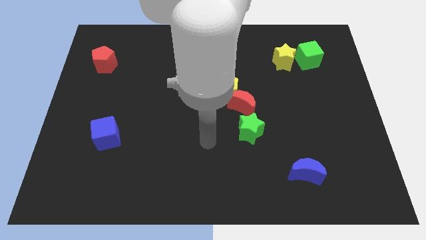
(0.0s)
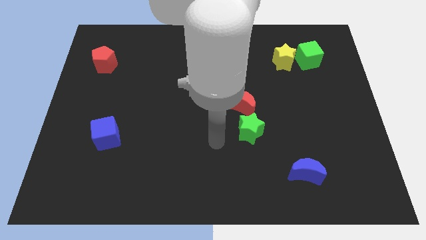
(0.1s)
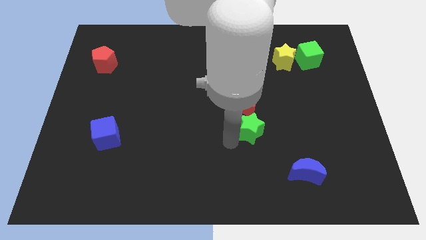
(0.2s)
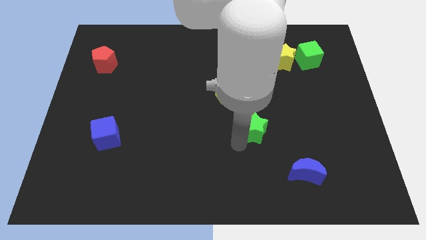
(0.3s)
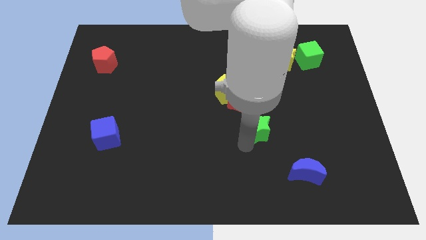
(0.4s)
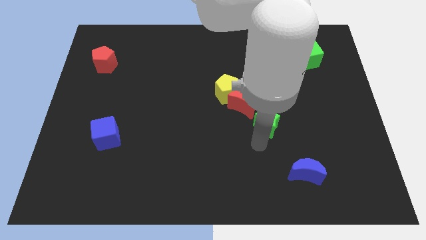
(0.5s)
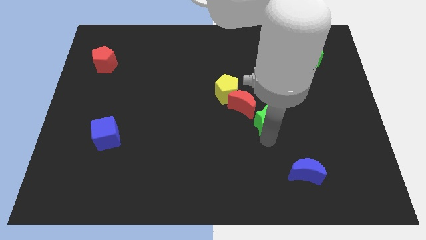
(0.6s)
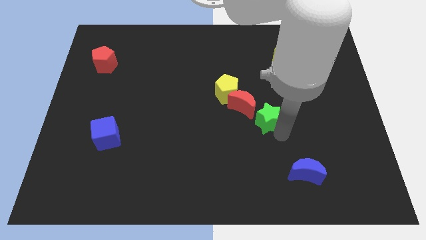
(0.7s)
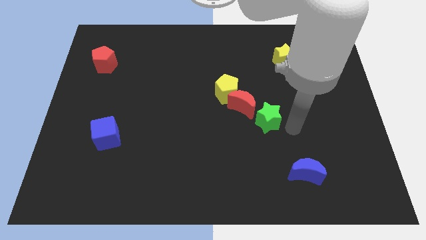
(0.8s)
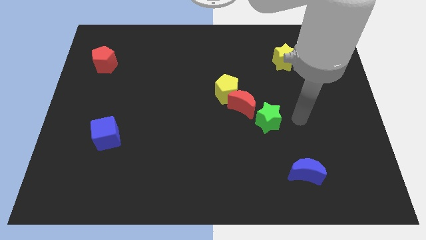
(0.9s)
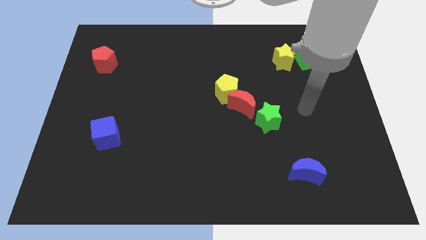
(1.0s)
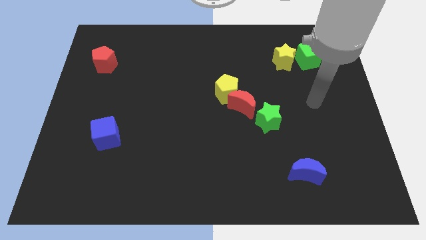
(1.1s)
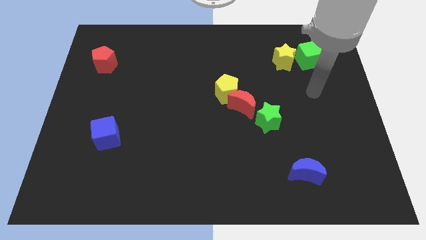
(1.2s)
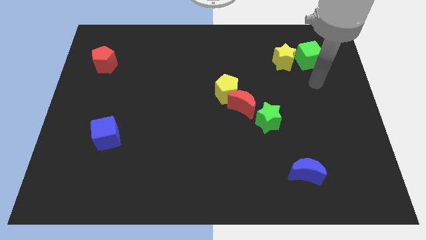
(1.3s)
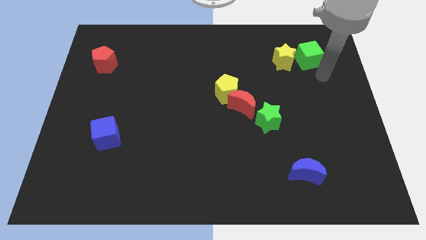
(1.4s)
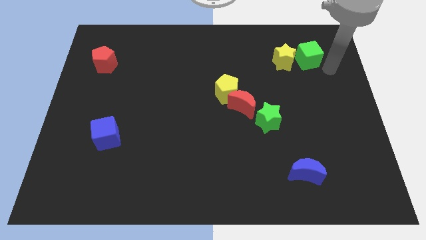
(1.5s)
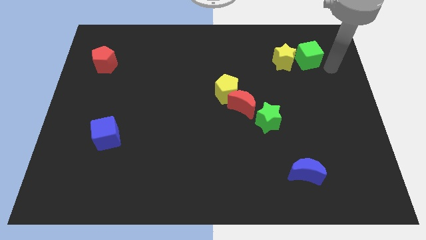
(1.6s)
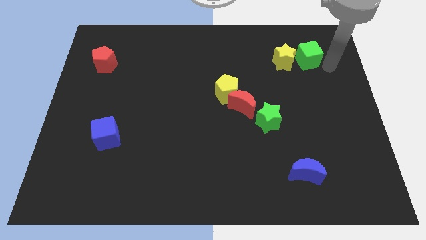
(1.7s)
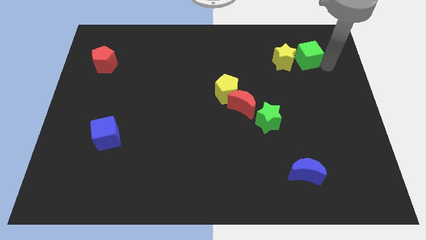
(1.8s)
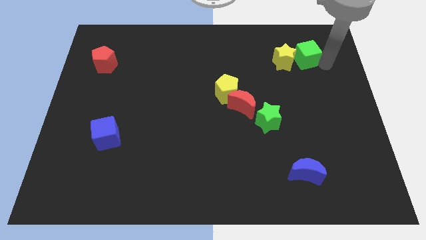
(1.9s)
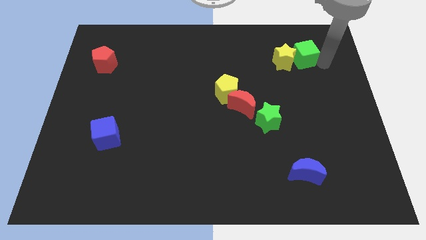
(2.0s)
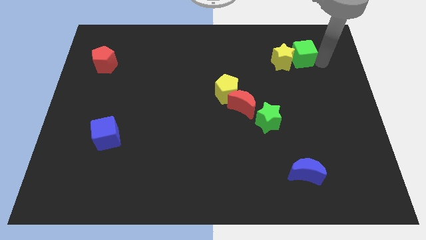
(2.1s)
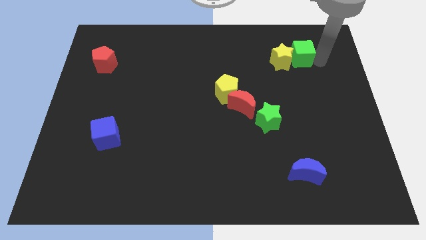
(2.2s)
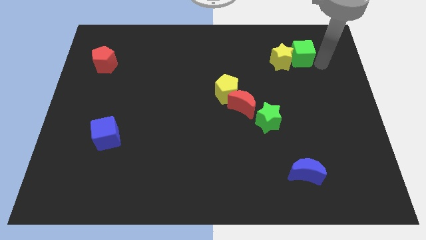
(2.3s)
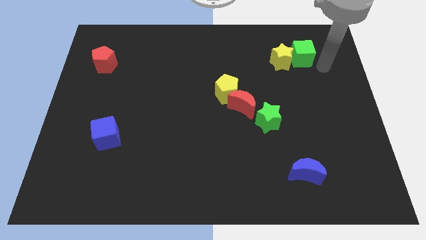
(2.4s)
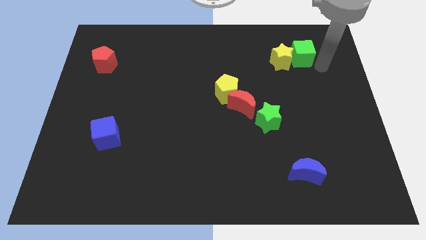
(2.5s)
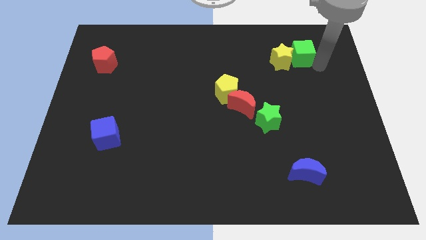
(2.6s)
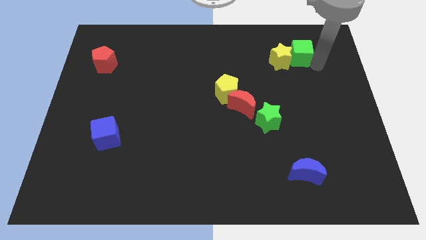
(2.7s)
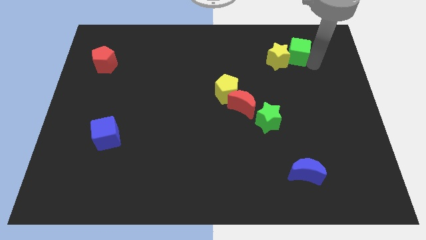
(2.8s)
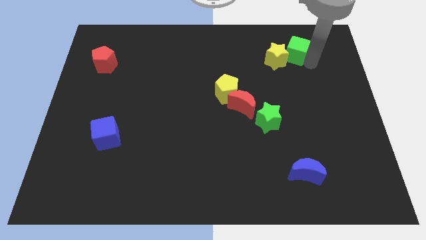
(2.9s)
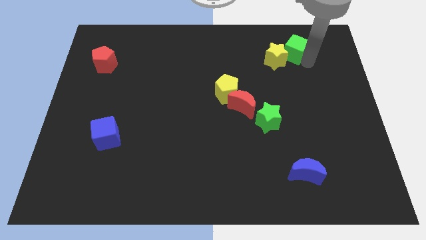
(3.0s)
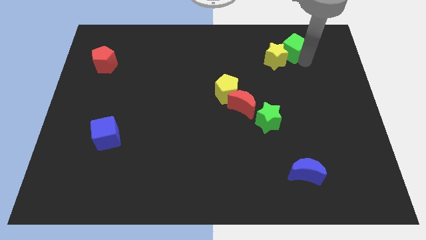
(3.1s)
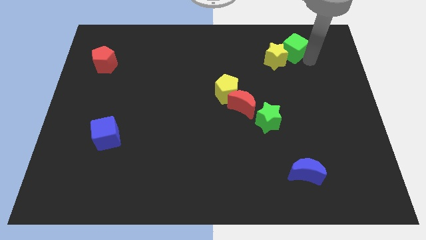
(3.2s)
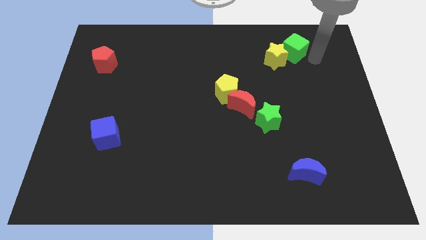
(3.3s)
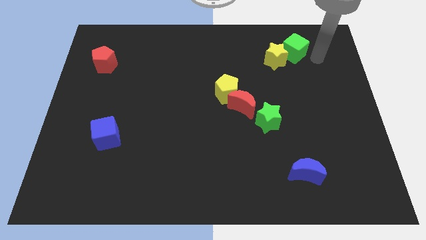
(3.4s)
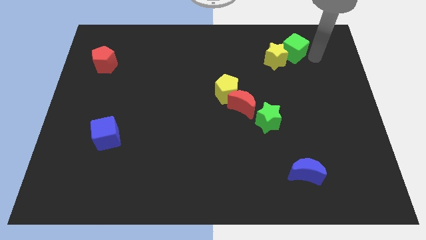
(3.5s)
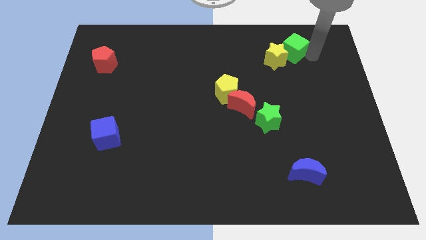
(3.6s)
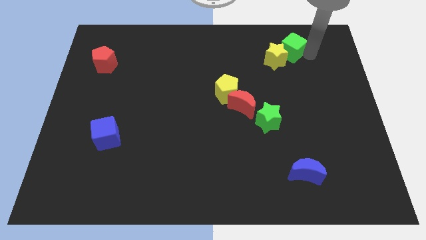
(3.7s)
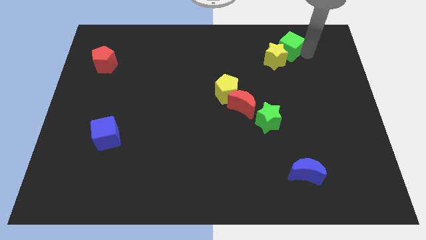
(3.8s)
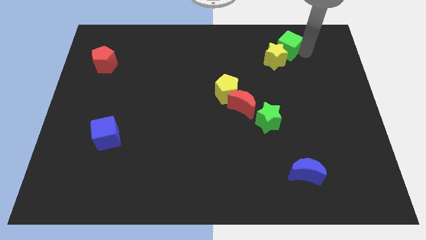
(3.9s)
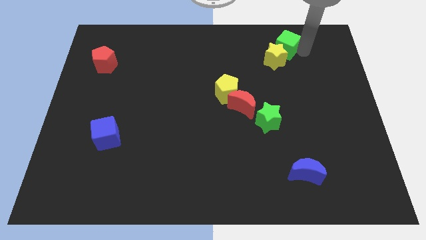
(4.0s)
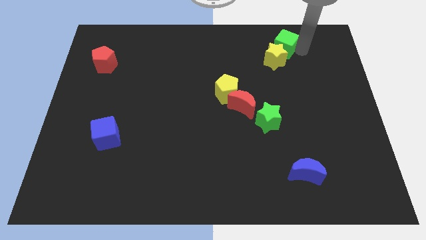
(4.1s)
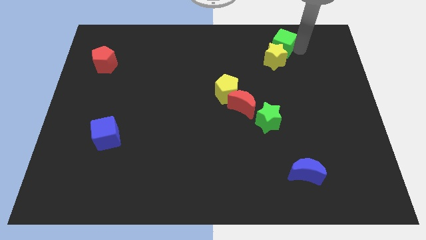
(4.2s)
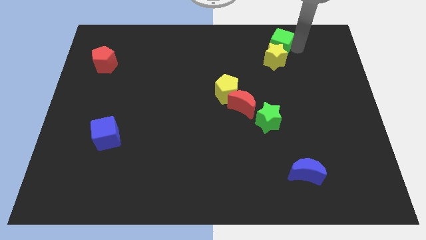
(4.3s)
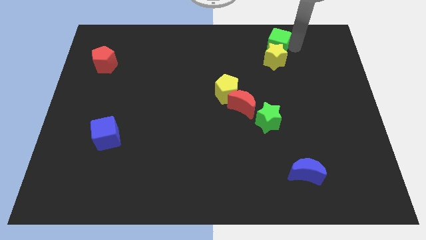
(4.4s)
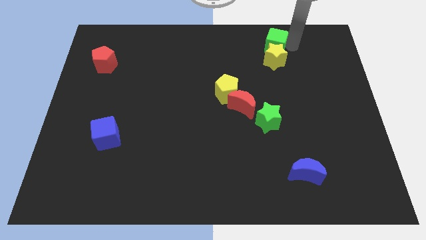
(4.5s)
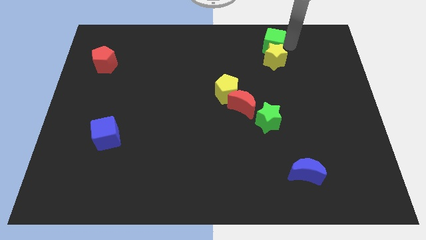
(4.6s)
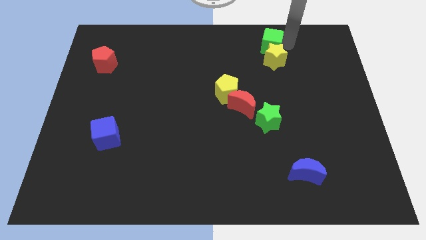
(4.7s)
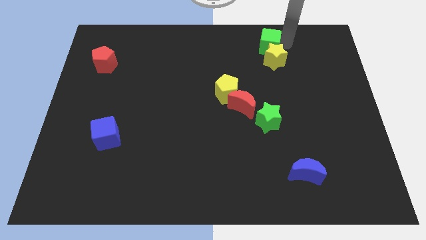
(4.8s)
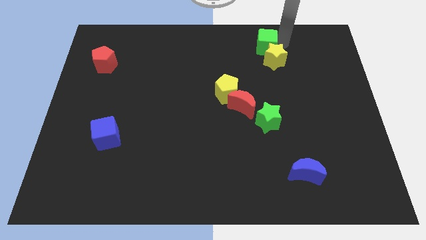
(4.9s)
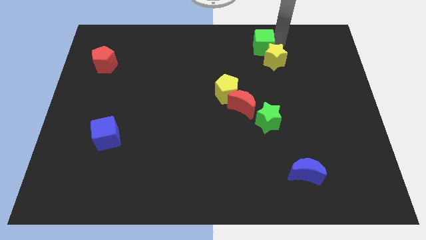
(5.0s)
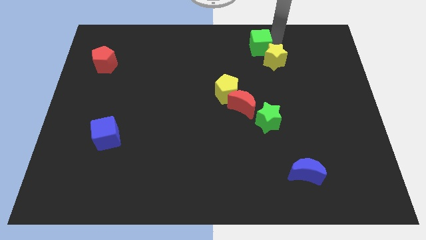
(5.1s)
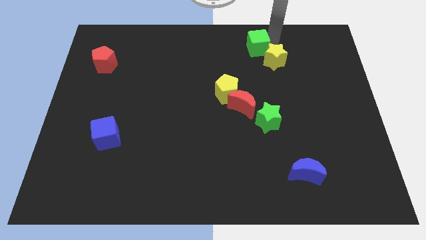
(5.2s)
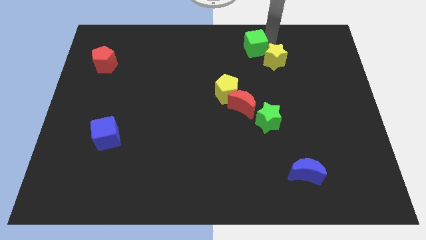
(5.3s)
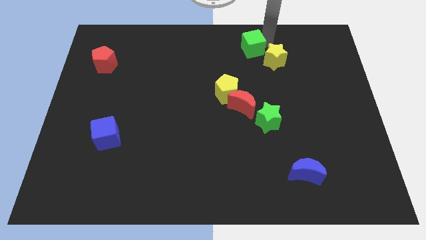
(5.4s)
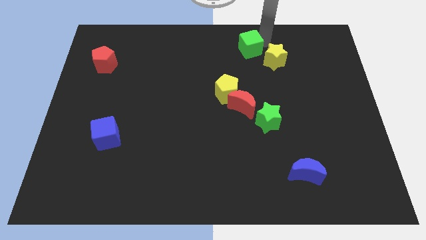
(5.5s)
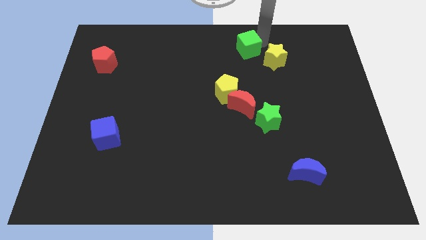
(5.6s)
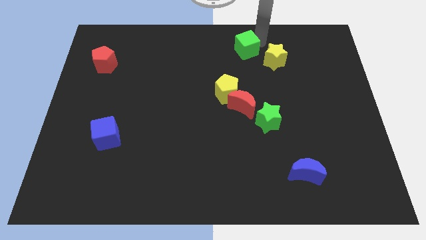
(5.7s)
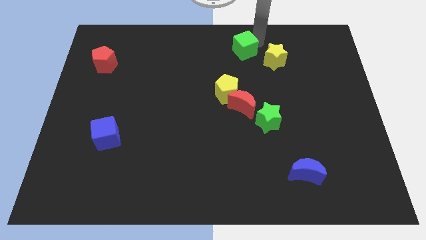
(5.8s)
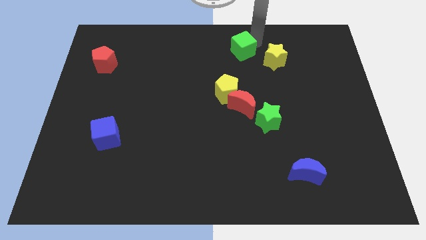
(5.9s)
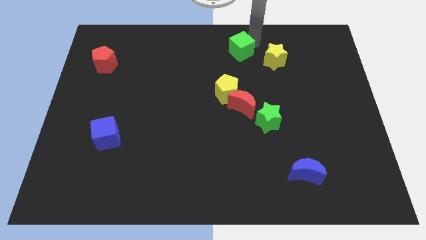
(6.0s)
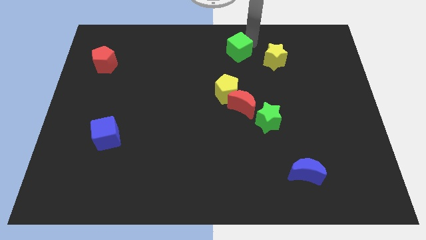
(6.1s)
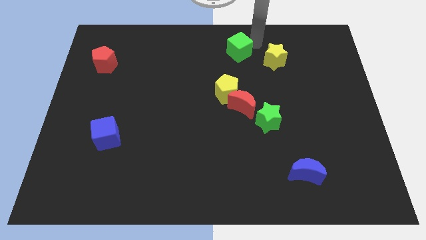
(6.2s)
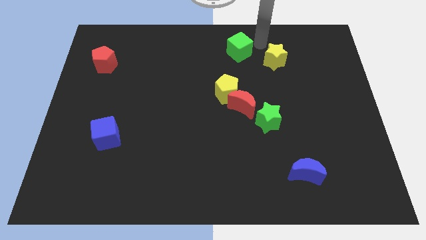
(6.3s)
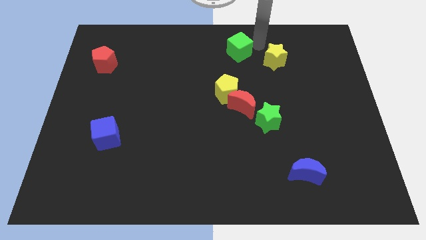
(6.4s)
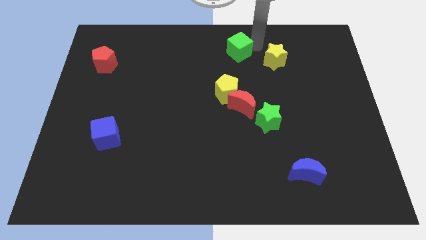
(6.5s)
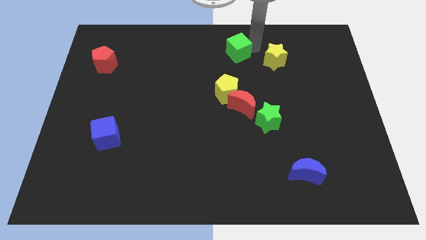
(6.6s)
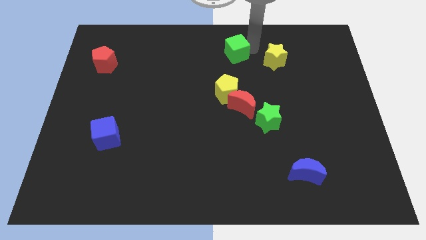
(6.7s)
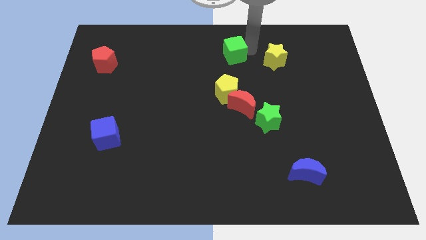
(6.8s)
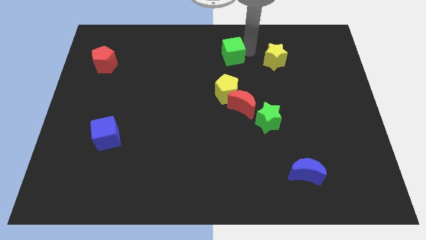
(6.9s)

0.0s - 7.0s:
push the green cube left

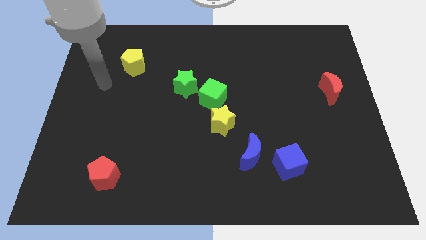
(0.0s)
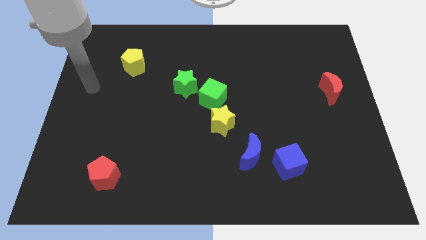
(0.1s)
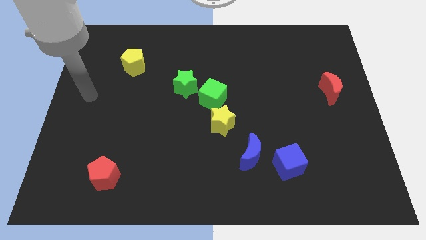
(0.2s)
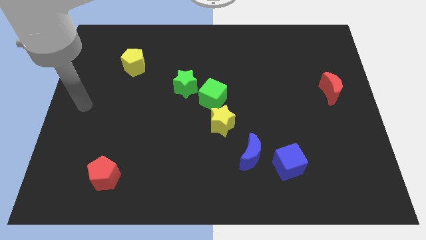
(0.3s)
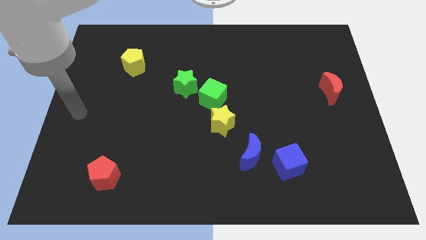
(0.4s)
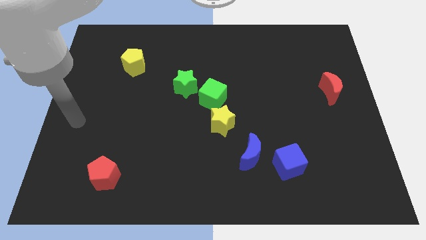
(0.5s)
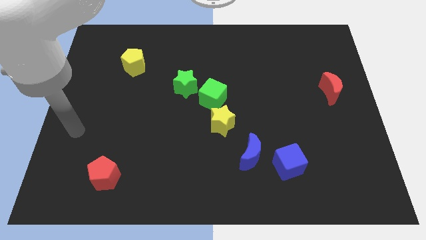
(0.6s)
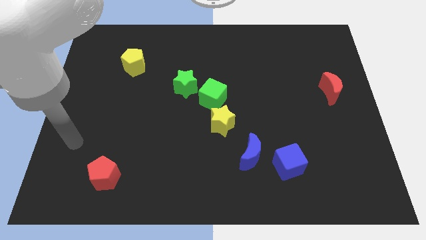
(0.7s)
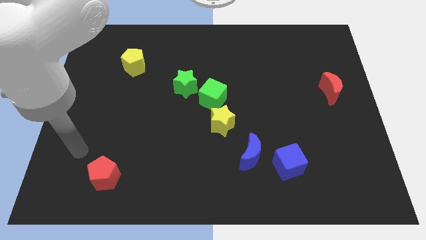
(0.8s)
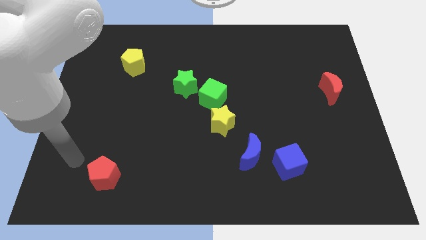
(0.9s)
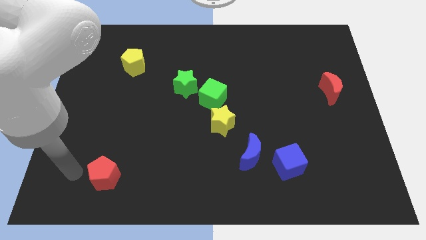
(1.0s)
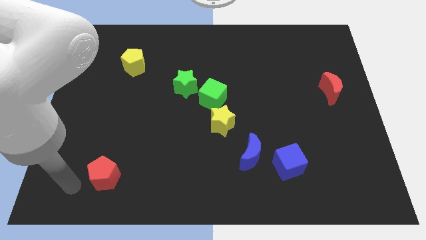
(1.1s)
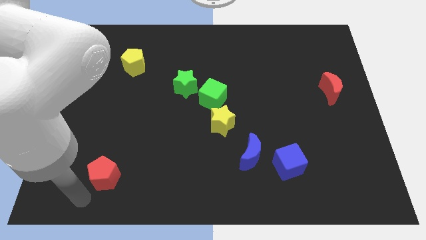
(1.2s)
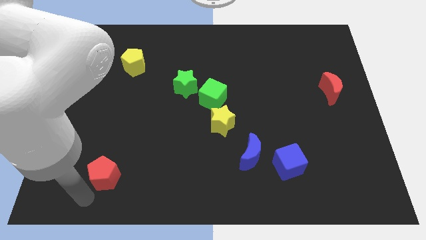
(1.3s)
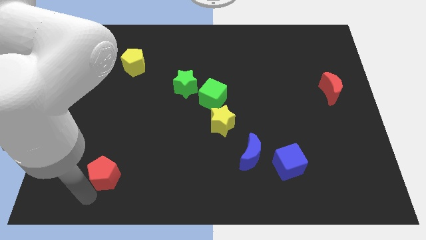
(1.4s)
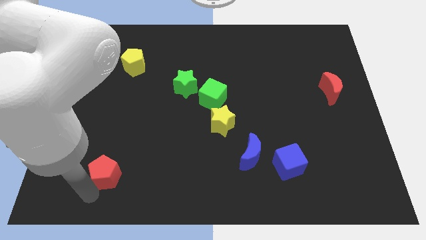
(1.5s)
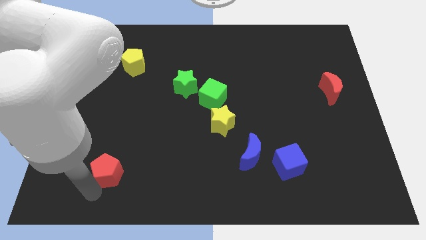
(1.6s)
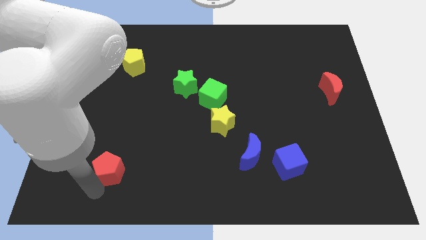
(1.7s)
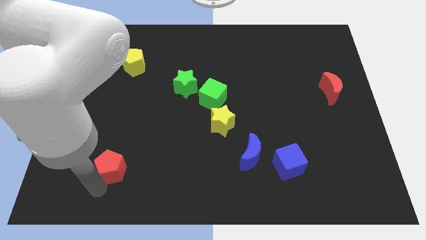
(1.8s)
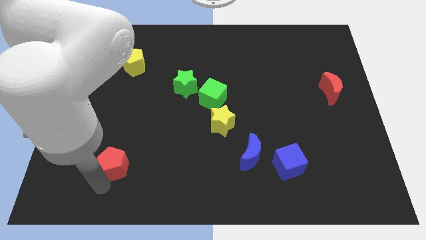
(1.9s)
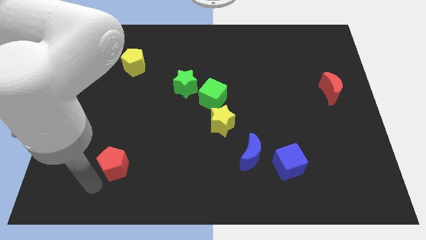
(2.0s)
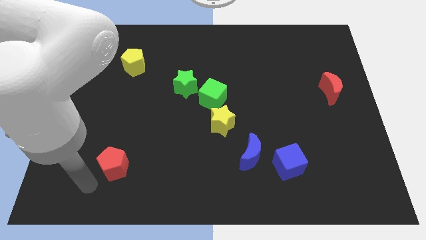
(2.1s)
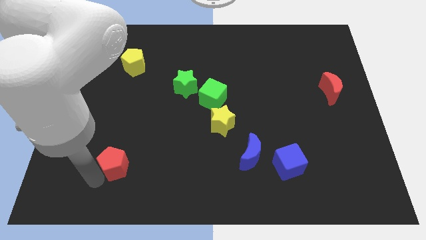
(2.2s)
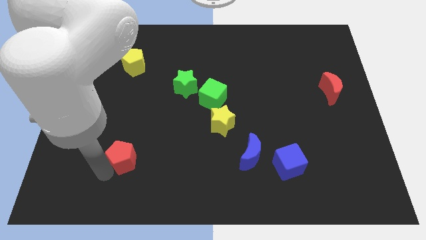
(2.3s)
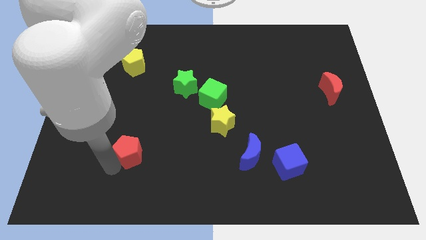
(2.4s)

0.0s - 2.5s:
push the red pentagon up and then to the right a little
